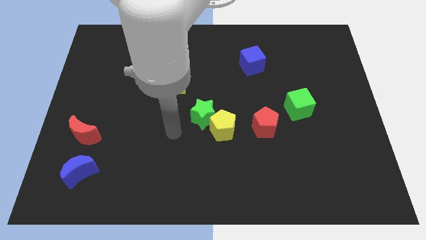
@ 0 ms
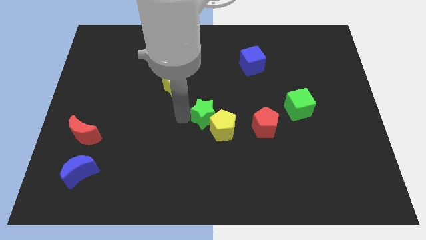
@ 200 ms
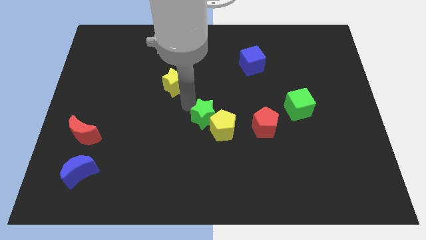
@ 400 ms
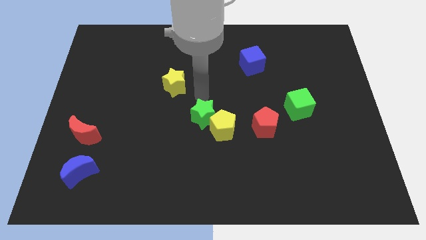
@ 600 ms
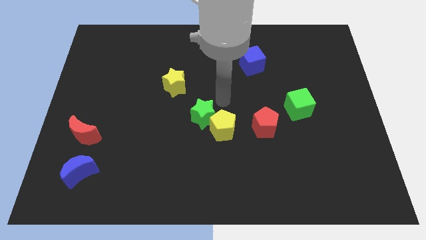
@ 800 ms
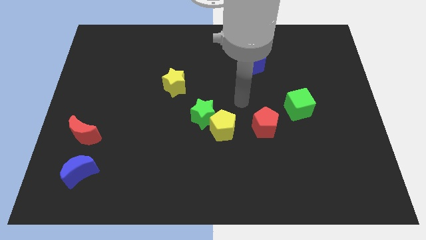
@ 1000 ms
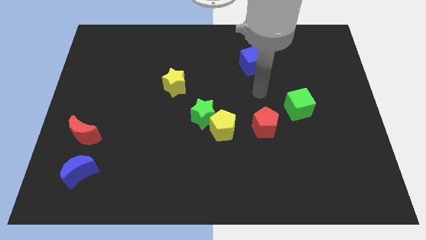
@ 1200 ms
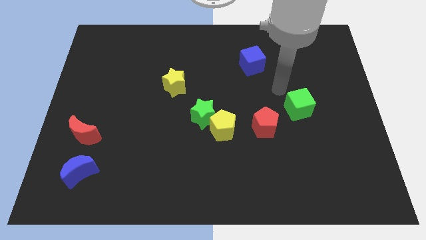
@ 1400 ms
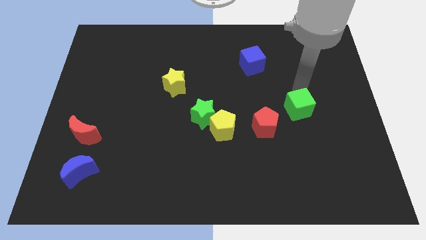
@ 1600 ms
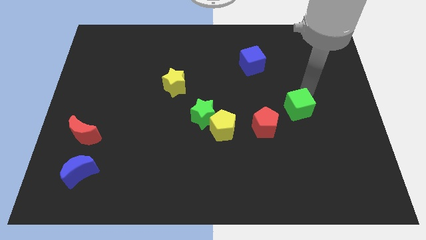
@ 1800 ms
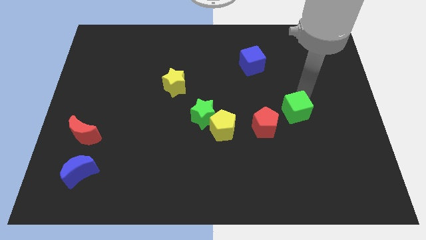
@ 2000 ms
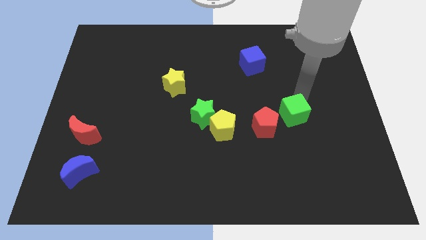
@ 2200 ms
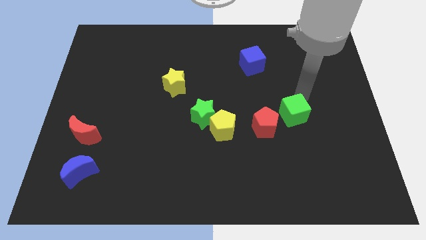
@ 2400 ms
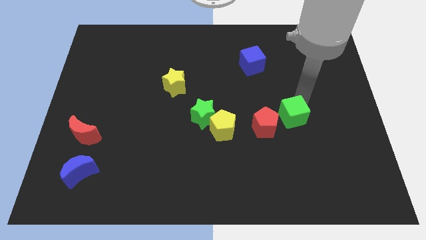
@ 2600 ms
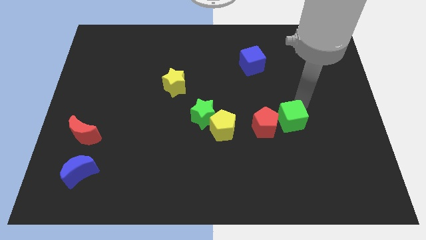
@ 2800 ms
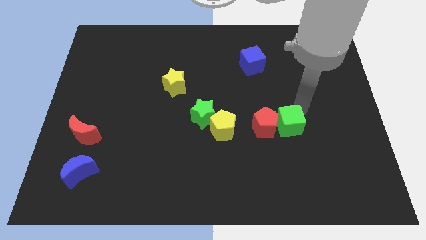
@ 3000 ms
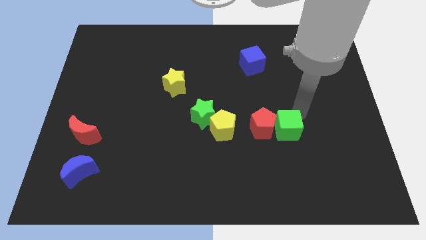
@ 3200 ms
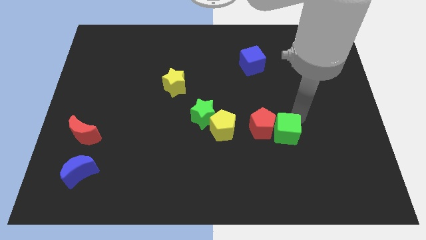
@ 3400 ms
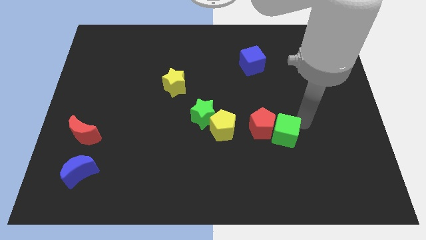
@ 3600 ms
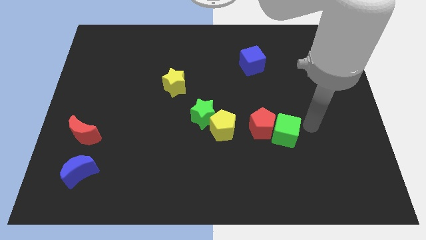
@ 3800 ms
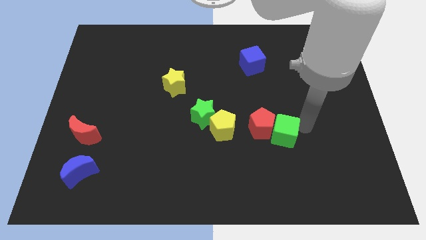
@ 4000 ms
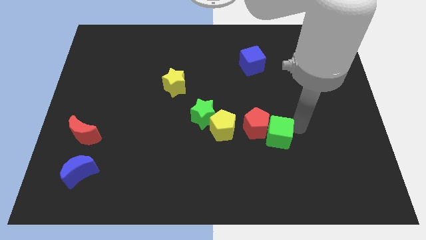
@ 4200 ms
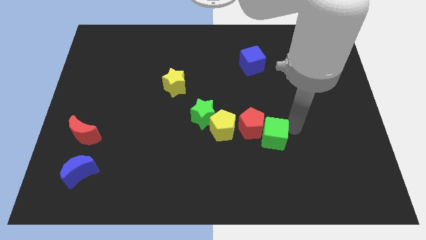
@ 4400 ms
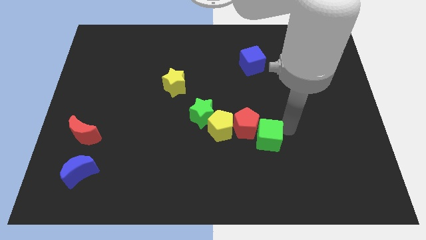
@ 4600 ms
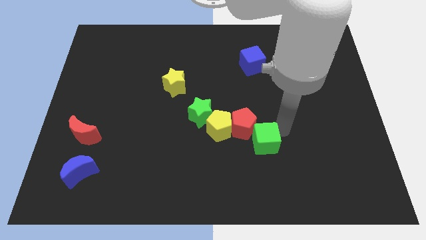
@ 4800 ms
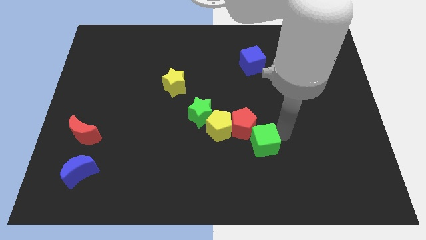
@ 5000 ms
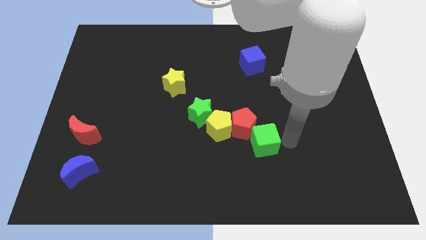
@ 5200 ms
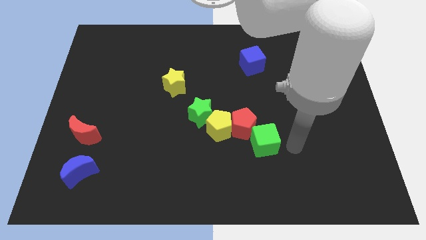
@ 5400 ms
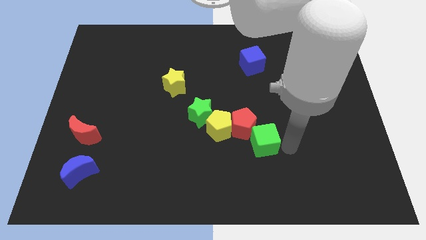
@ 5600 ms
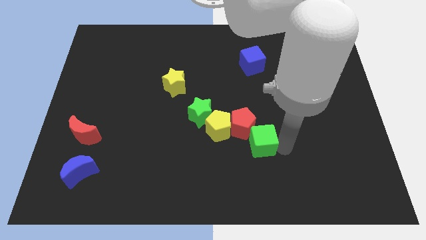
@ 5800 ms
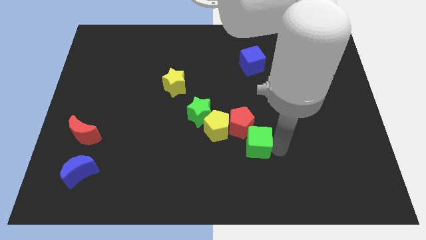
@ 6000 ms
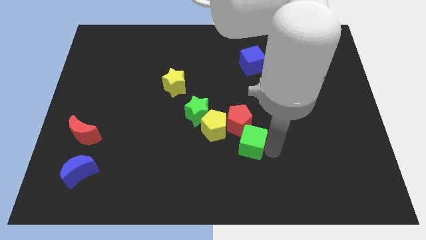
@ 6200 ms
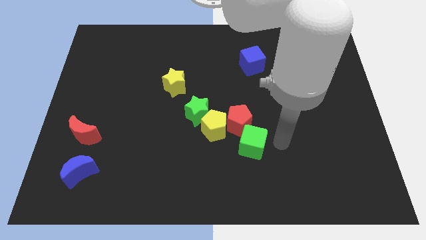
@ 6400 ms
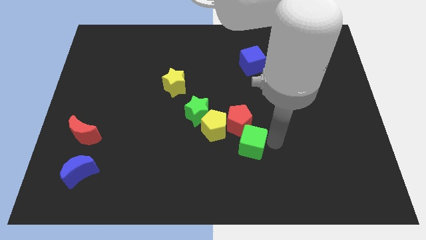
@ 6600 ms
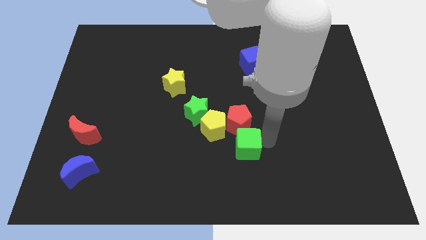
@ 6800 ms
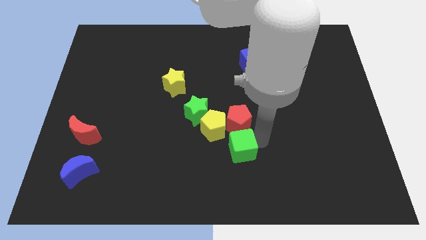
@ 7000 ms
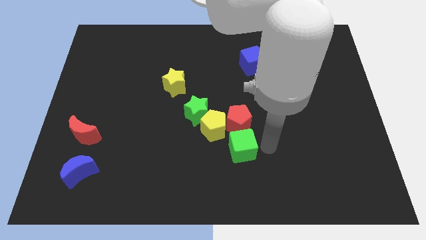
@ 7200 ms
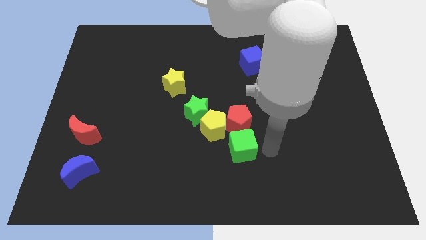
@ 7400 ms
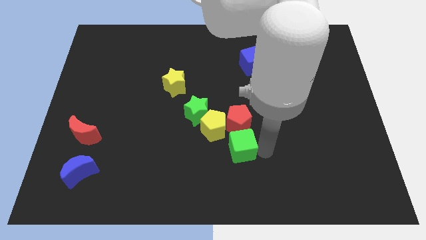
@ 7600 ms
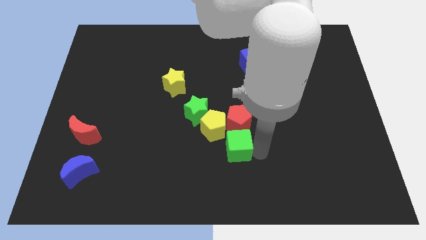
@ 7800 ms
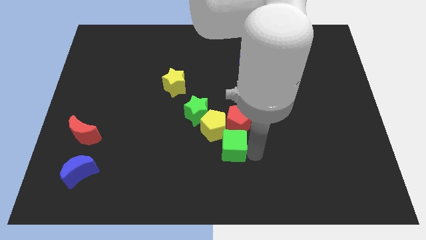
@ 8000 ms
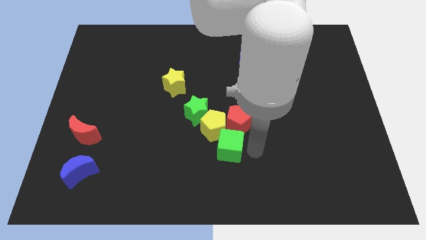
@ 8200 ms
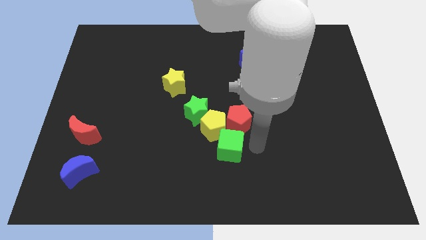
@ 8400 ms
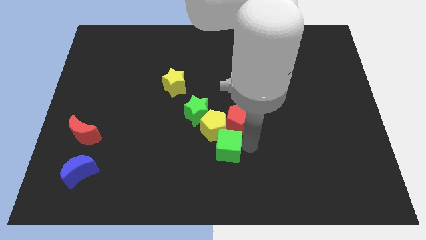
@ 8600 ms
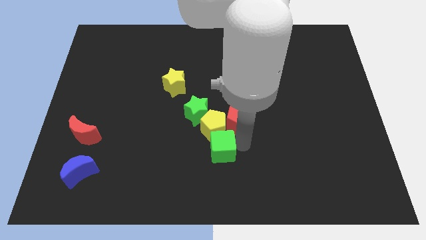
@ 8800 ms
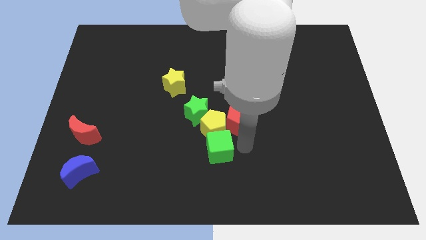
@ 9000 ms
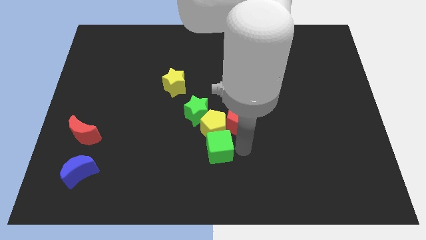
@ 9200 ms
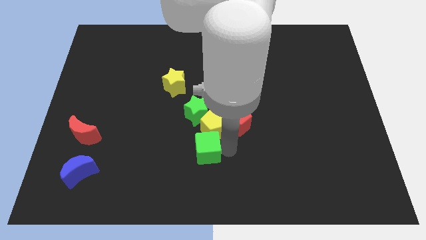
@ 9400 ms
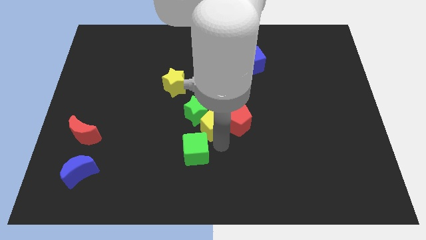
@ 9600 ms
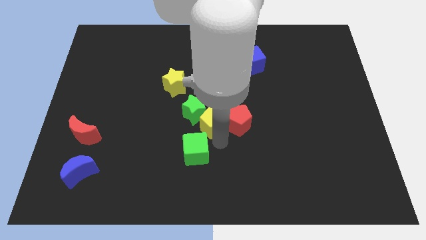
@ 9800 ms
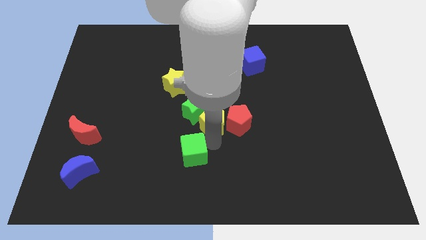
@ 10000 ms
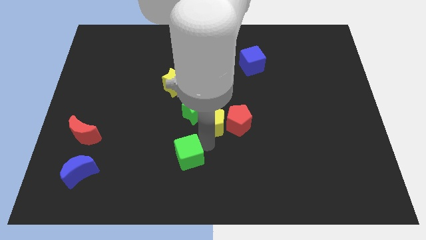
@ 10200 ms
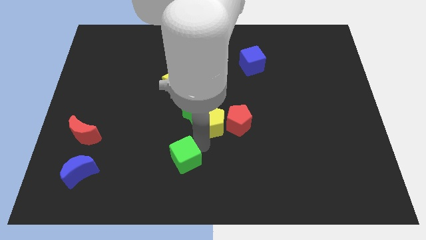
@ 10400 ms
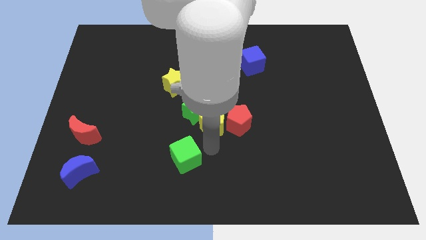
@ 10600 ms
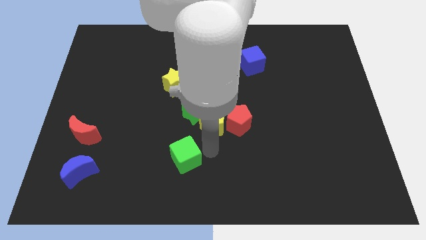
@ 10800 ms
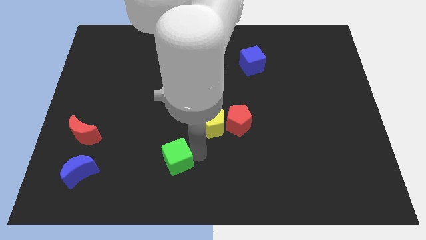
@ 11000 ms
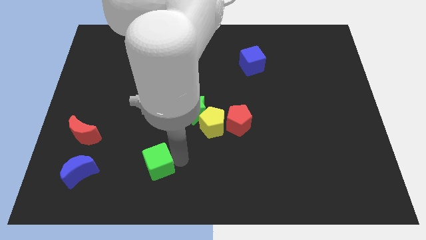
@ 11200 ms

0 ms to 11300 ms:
slide the green cube to the right side of the blue moon

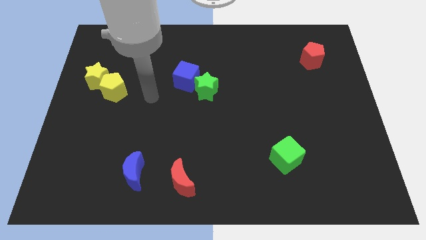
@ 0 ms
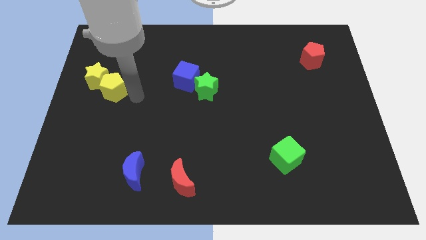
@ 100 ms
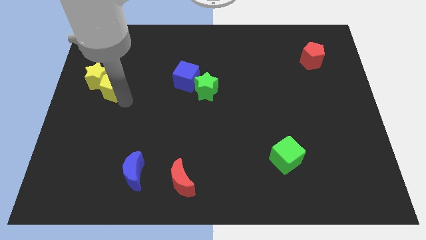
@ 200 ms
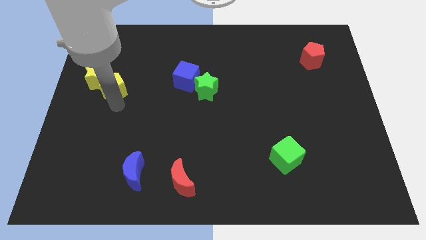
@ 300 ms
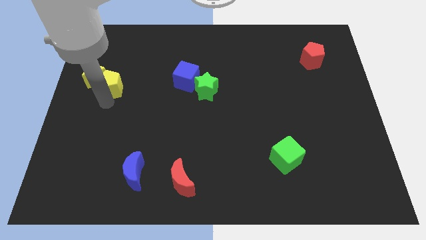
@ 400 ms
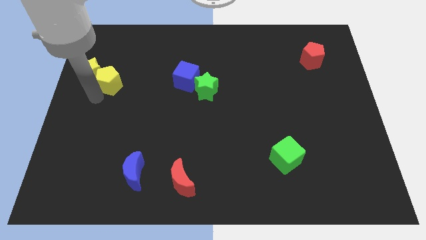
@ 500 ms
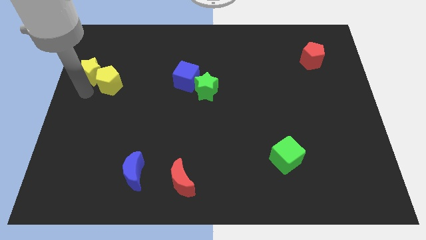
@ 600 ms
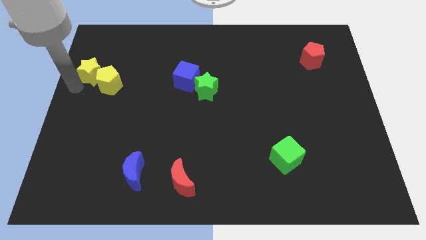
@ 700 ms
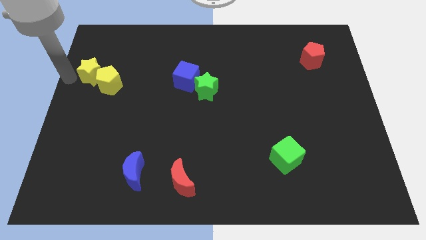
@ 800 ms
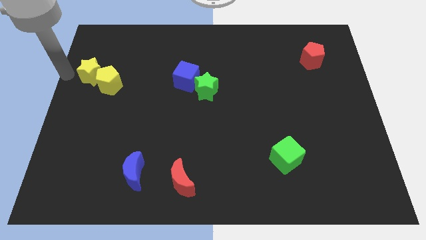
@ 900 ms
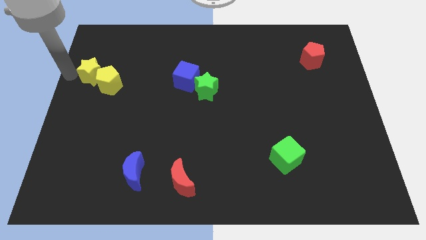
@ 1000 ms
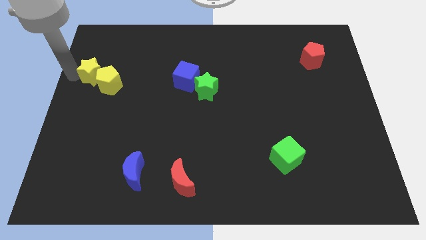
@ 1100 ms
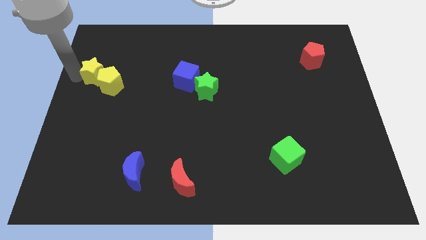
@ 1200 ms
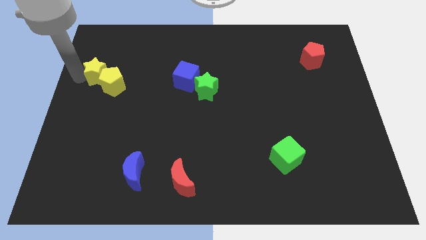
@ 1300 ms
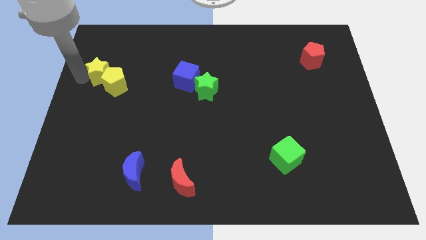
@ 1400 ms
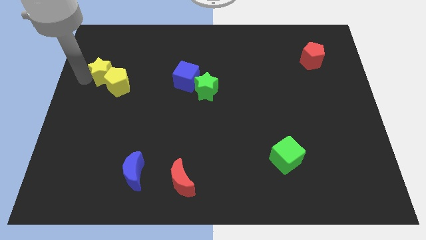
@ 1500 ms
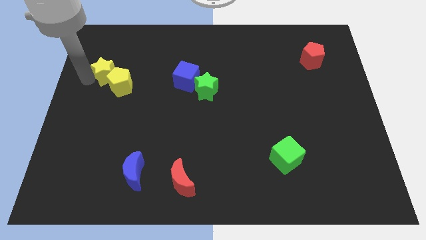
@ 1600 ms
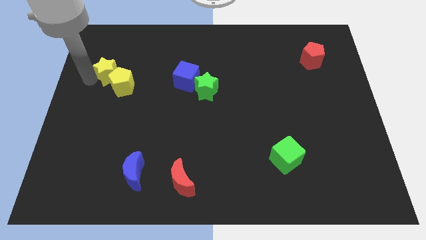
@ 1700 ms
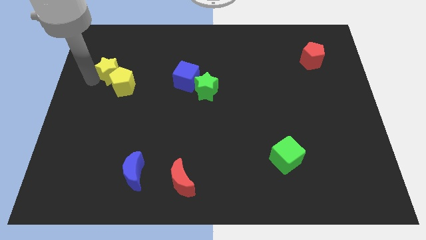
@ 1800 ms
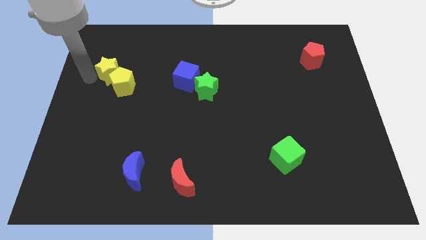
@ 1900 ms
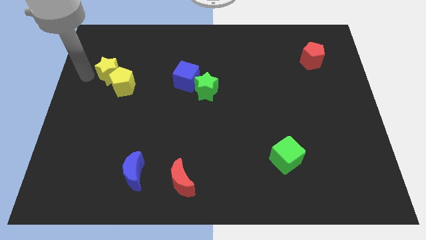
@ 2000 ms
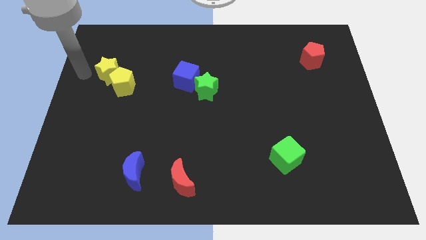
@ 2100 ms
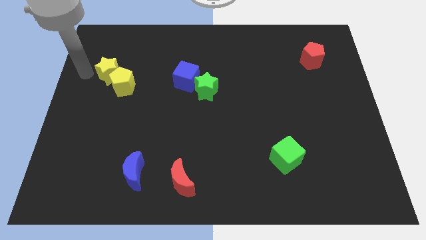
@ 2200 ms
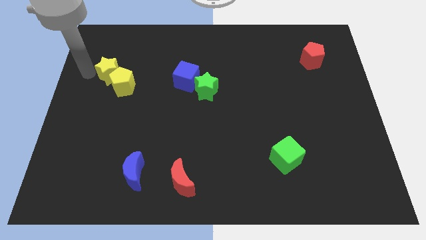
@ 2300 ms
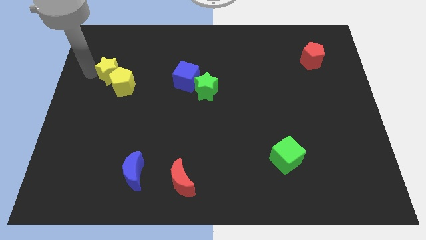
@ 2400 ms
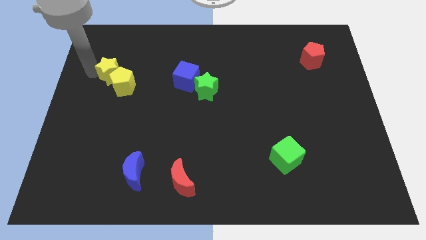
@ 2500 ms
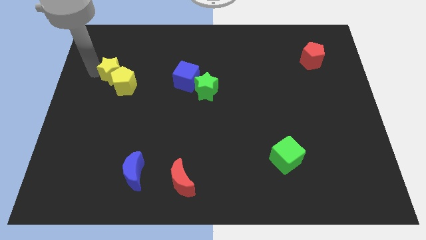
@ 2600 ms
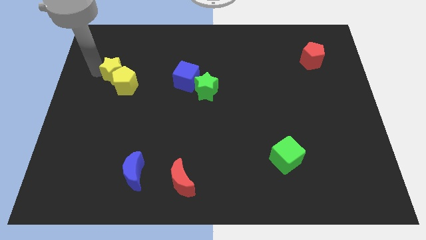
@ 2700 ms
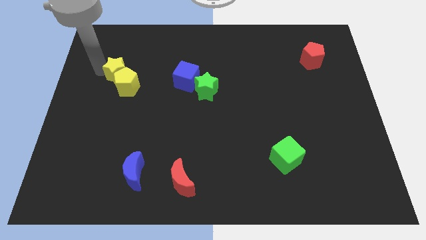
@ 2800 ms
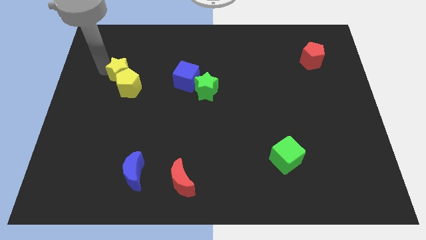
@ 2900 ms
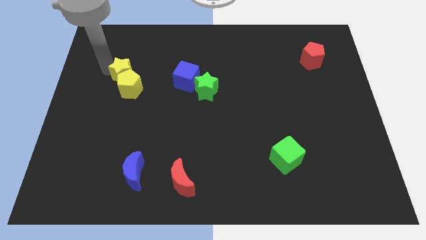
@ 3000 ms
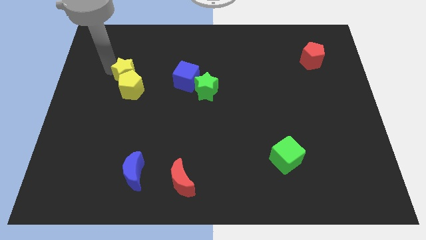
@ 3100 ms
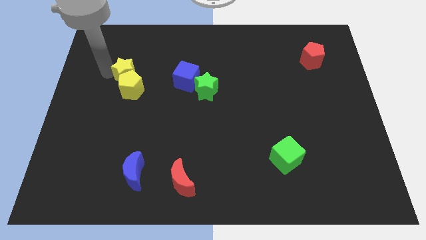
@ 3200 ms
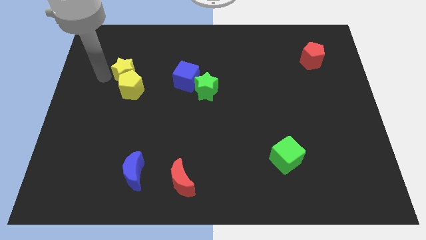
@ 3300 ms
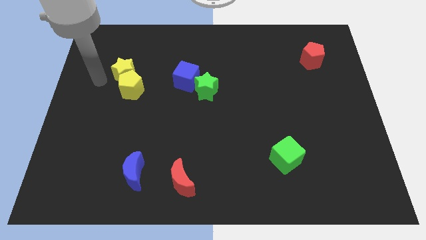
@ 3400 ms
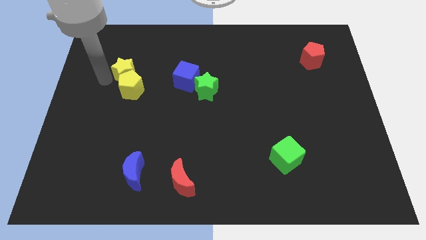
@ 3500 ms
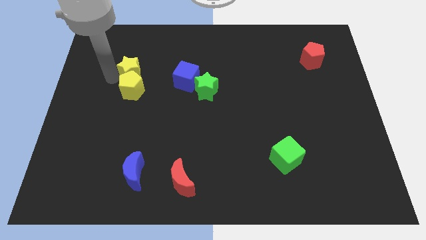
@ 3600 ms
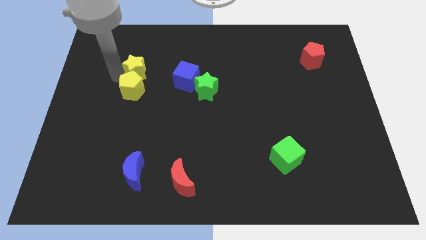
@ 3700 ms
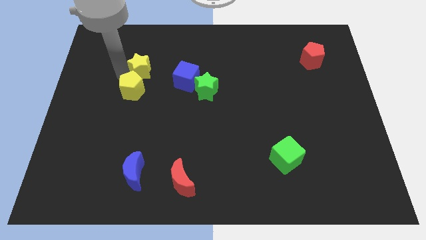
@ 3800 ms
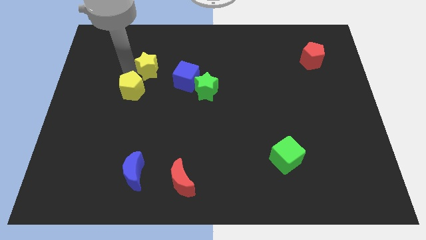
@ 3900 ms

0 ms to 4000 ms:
push the yellow star to the top left side of the blue cube
